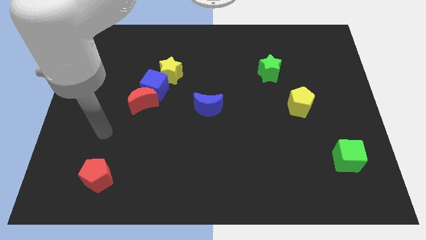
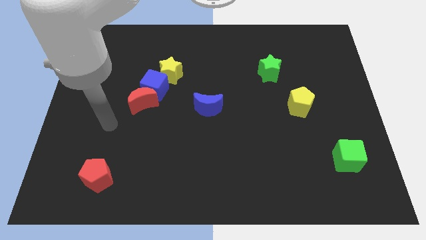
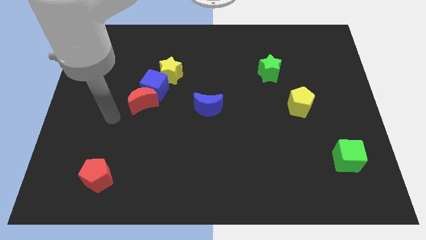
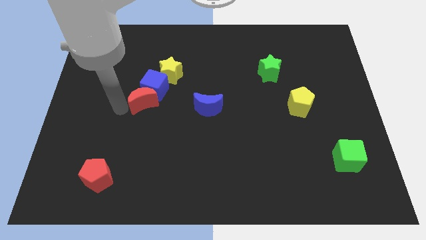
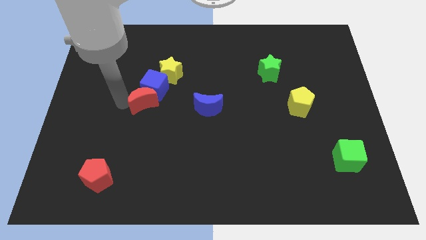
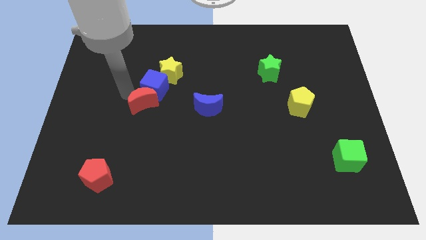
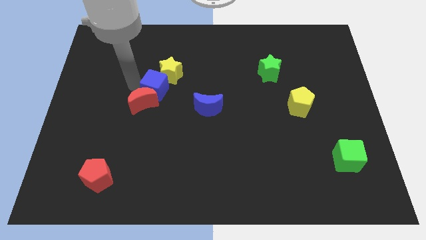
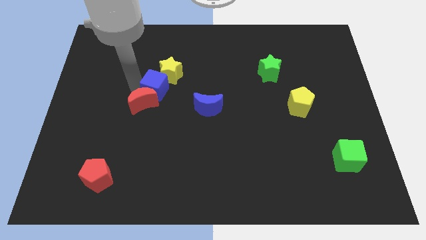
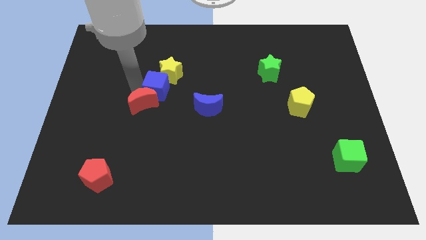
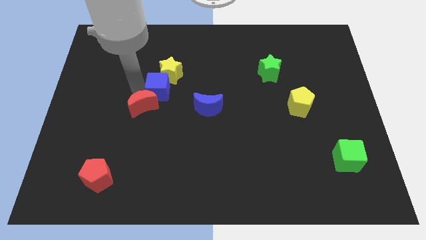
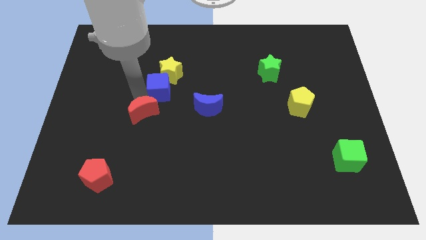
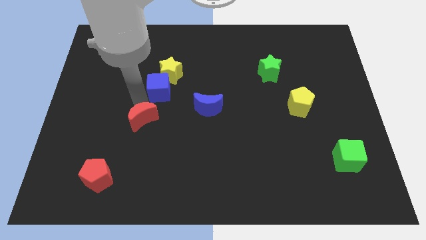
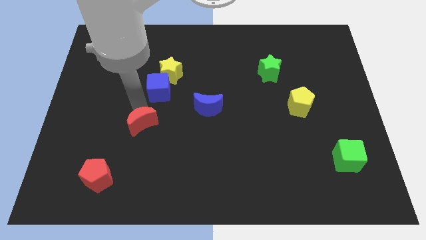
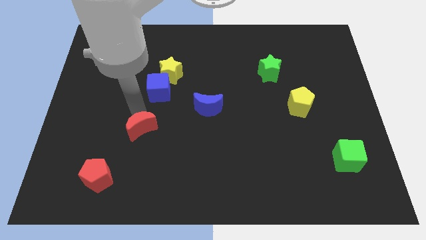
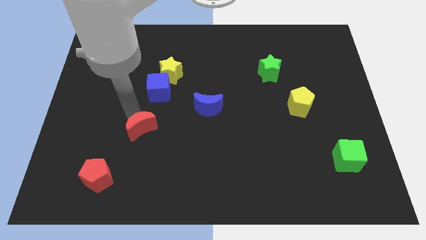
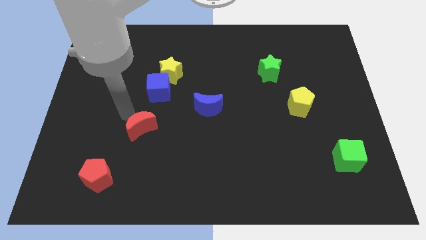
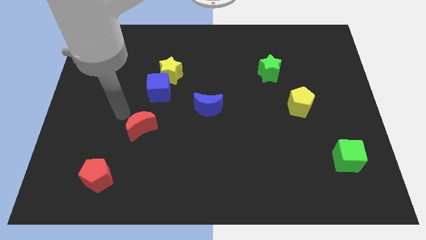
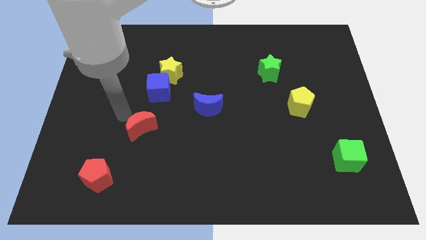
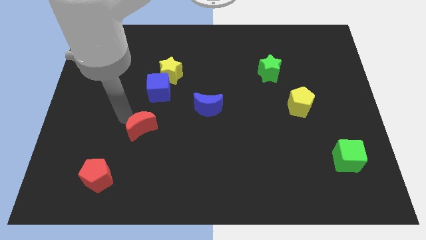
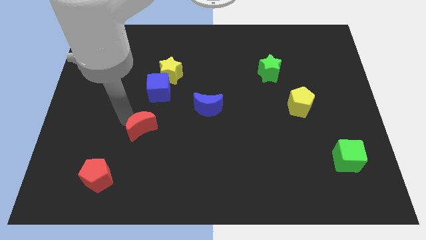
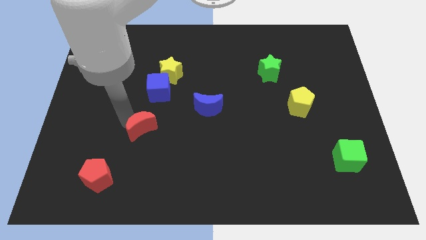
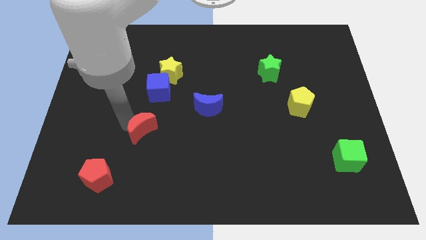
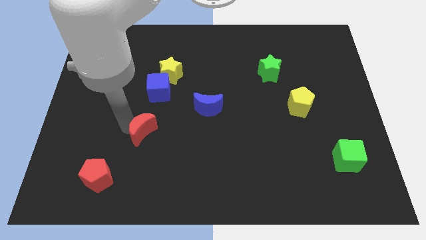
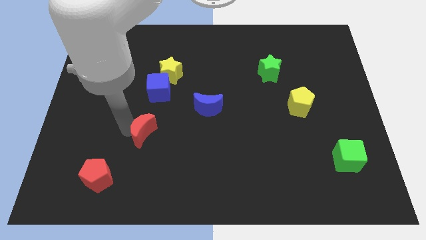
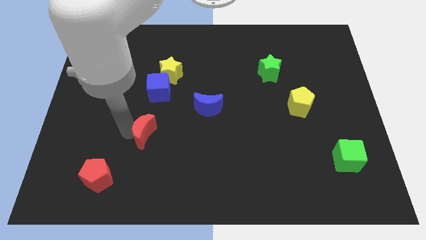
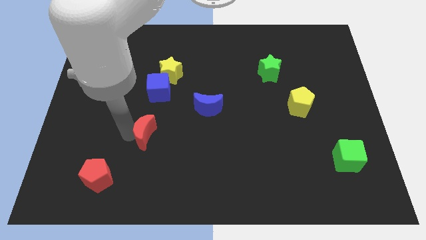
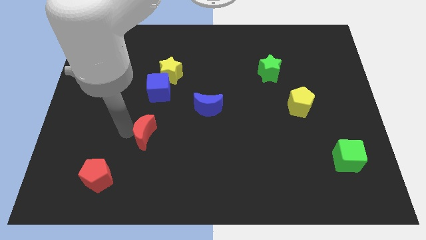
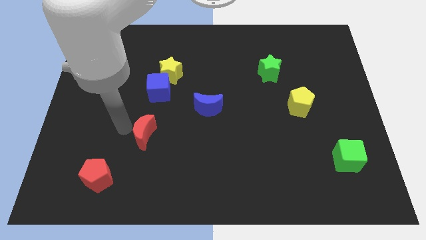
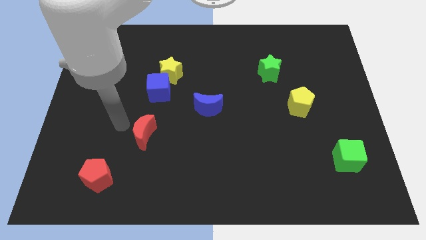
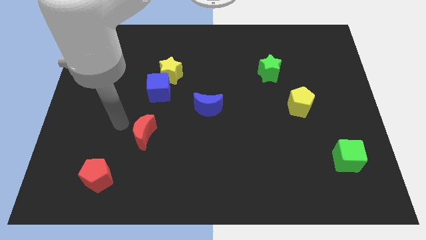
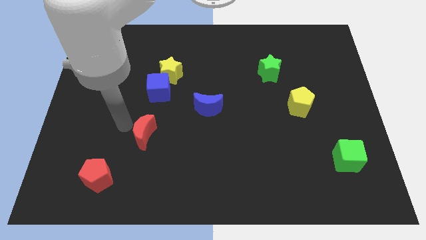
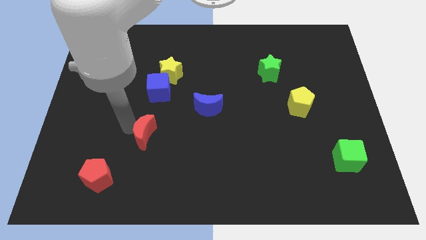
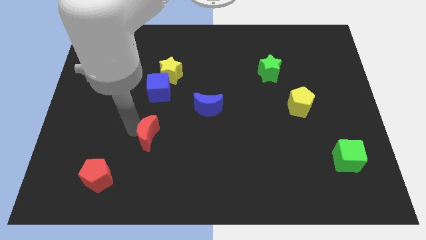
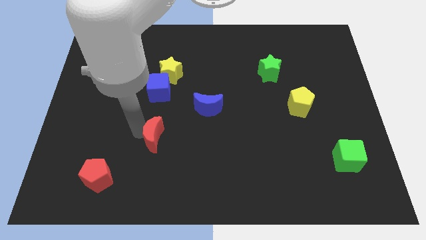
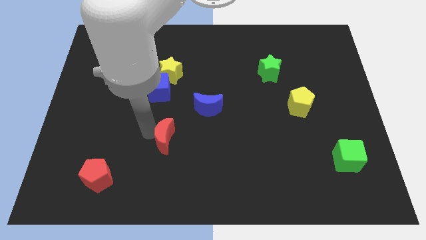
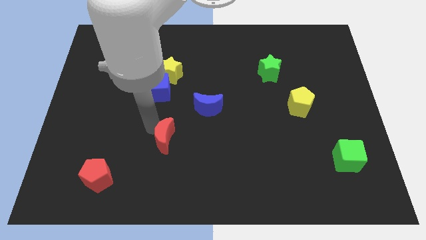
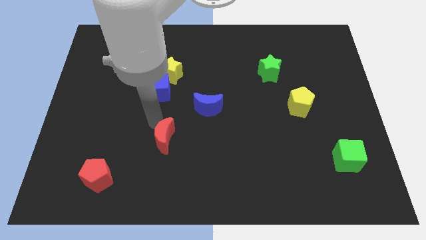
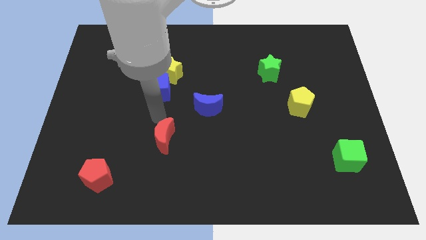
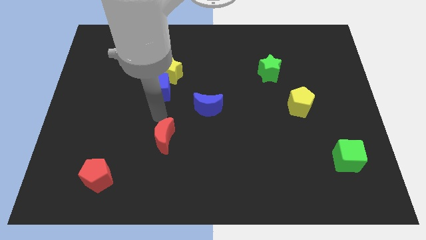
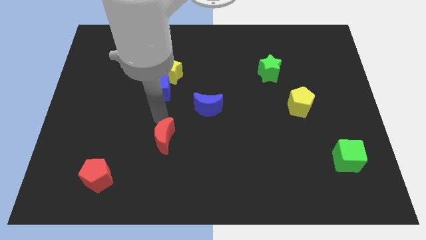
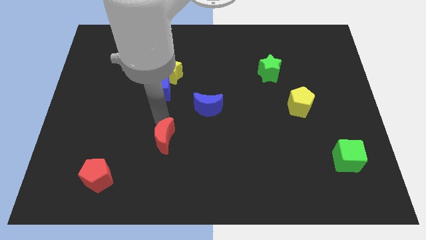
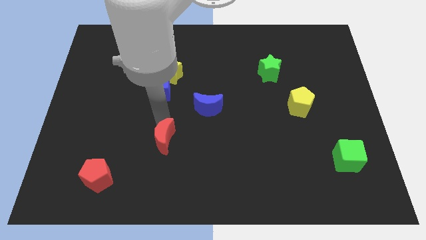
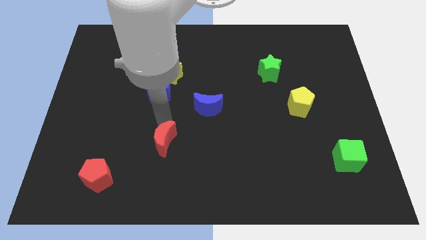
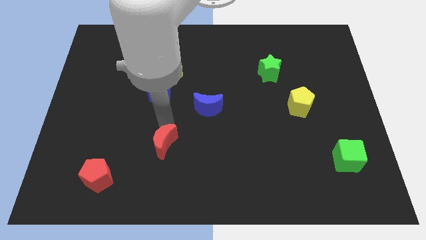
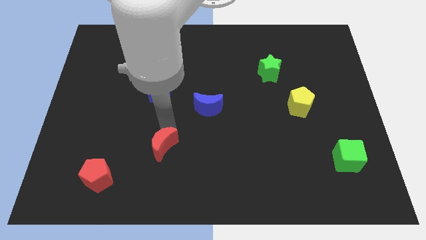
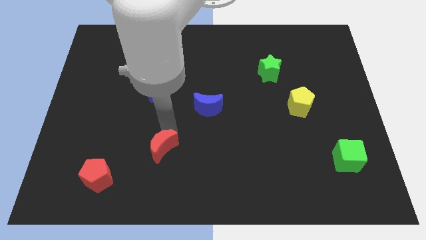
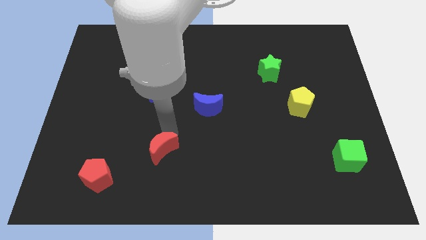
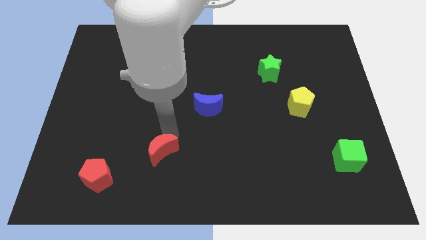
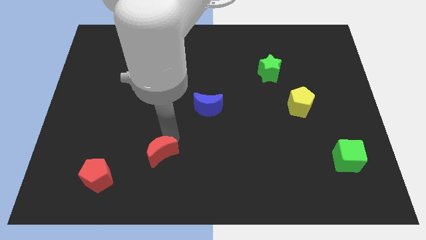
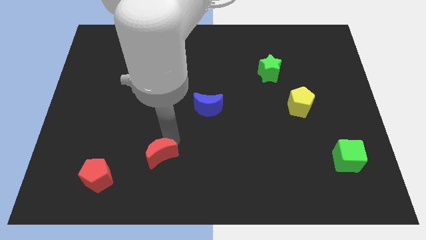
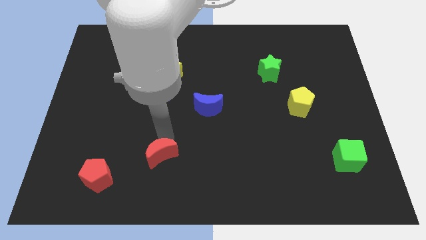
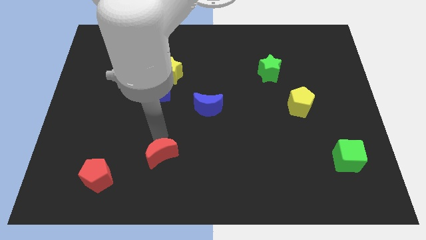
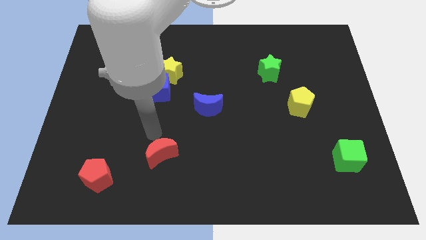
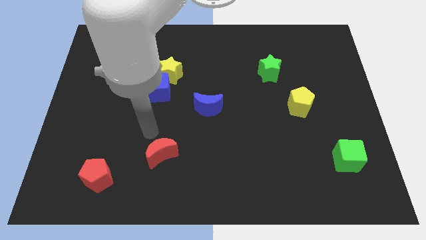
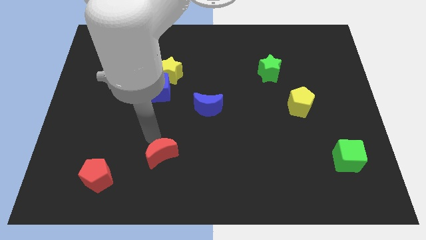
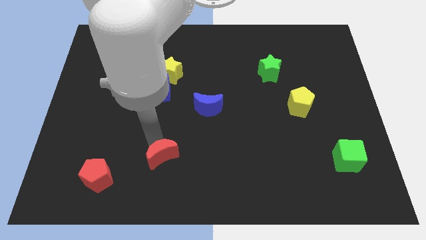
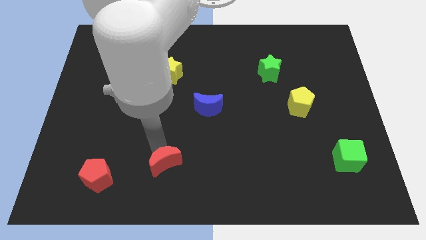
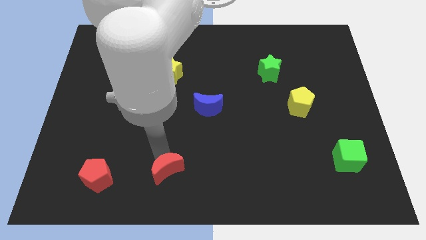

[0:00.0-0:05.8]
move the red moon to the bottom
